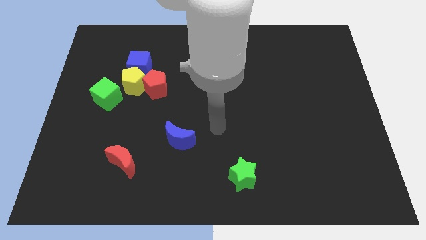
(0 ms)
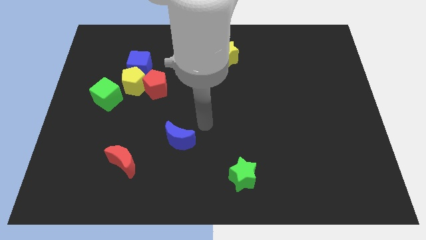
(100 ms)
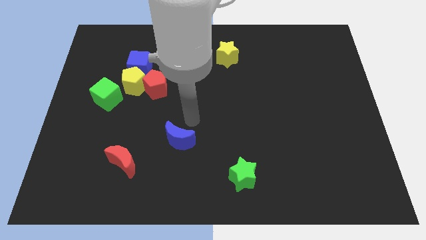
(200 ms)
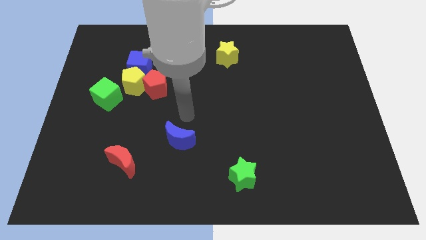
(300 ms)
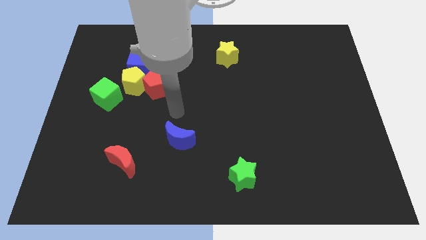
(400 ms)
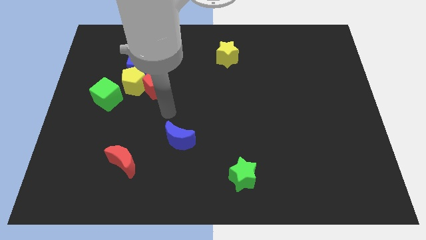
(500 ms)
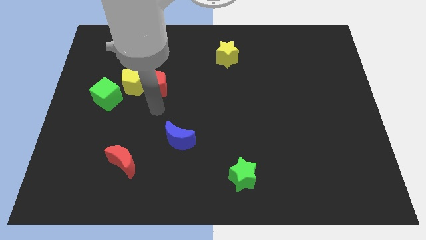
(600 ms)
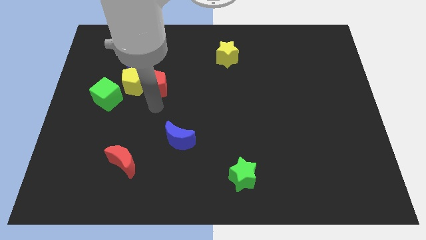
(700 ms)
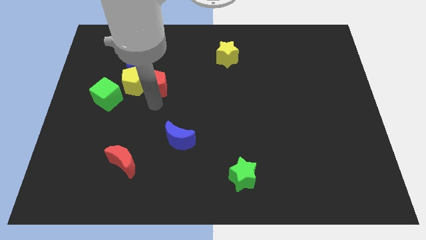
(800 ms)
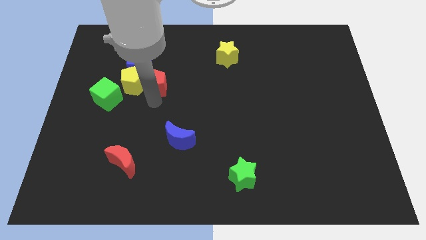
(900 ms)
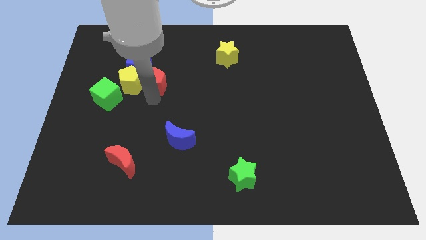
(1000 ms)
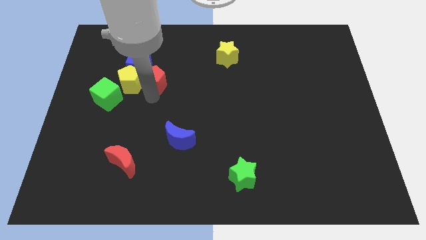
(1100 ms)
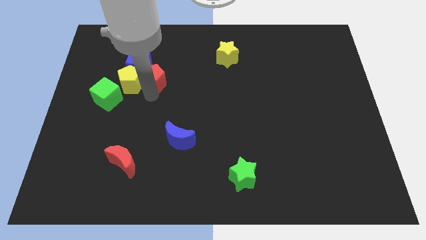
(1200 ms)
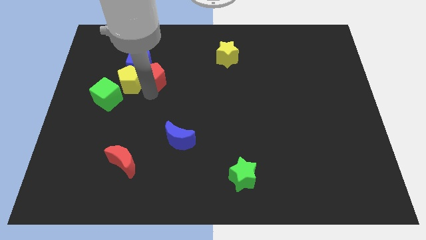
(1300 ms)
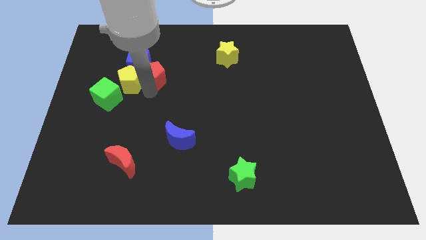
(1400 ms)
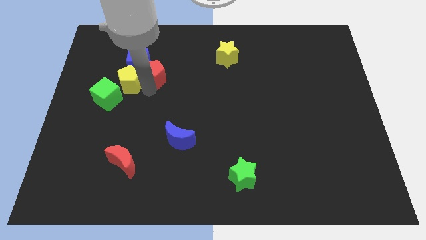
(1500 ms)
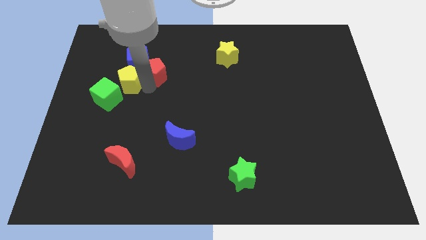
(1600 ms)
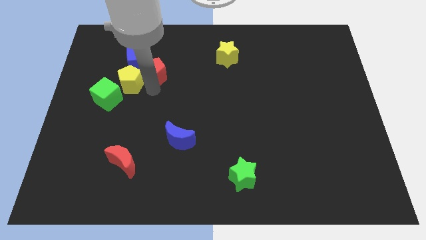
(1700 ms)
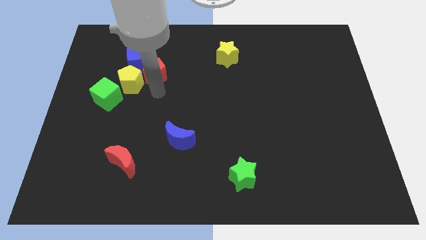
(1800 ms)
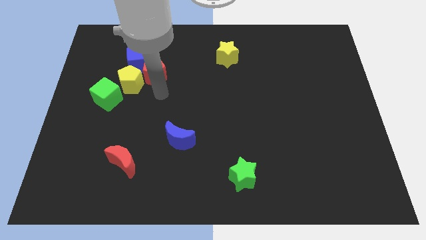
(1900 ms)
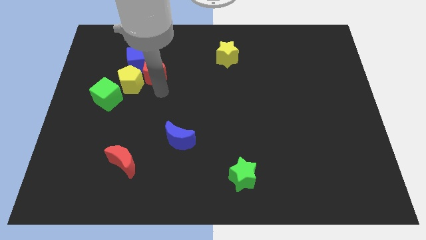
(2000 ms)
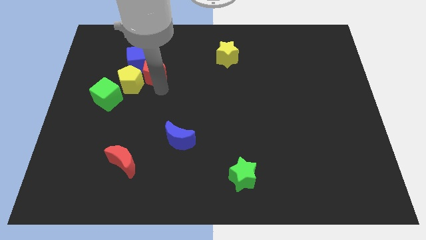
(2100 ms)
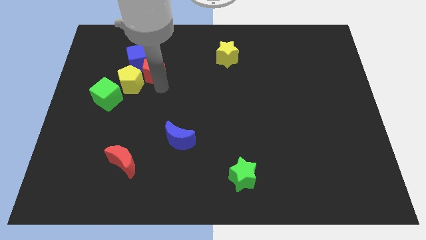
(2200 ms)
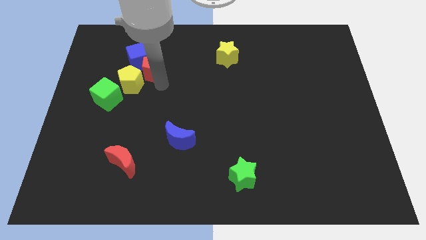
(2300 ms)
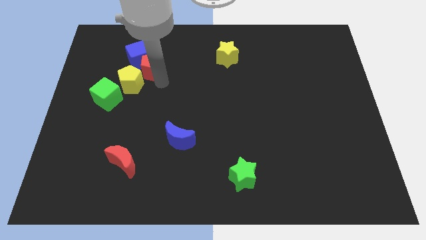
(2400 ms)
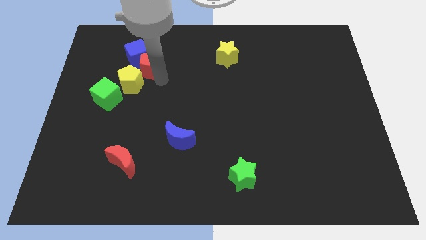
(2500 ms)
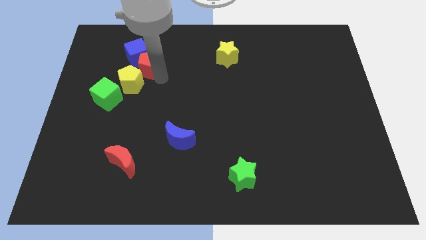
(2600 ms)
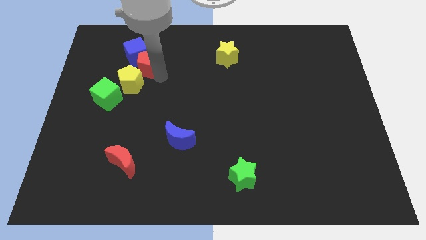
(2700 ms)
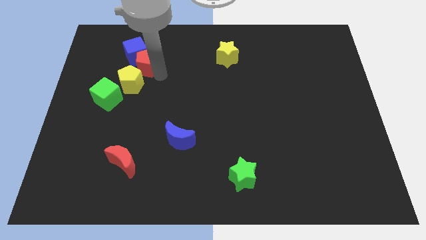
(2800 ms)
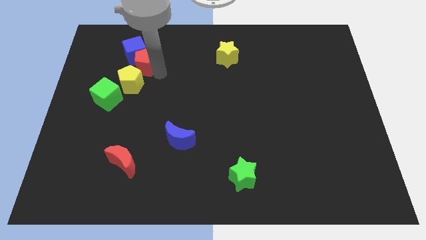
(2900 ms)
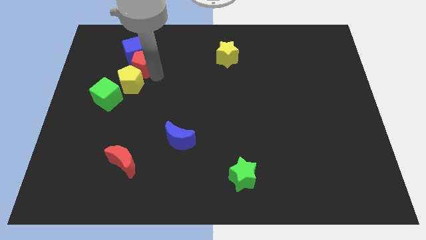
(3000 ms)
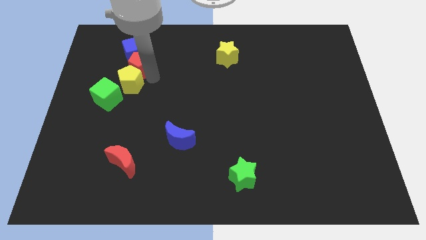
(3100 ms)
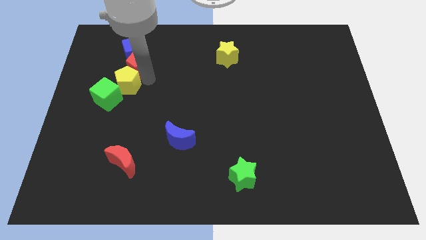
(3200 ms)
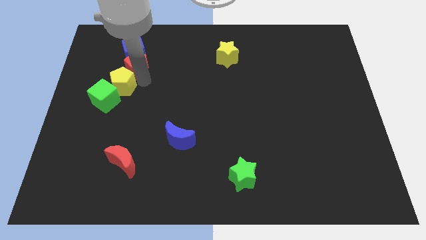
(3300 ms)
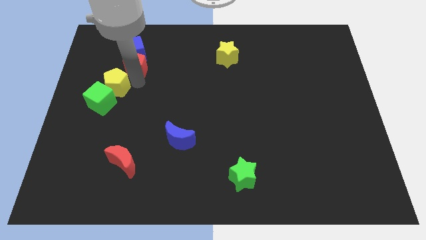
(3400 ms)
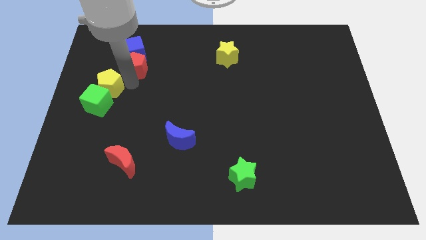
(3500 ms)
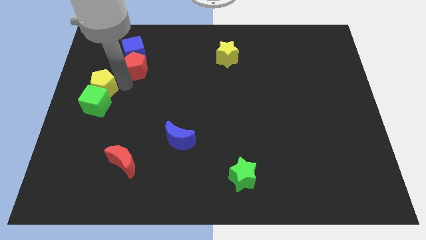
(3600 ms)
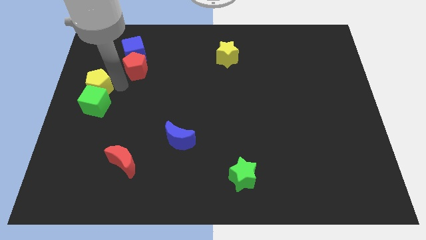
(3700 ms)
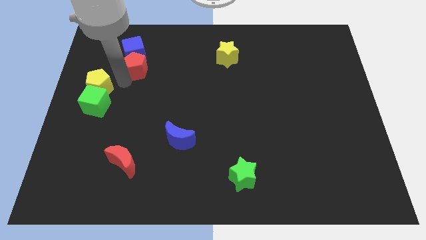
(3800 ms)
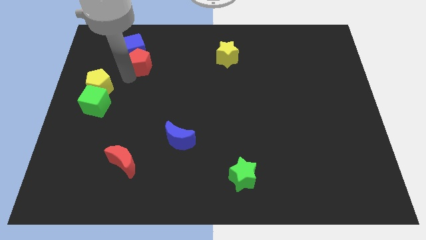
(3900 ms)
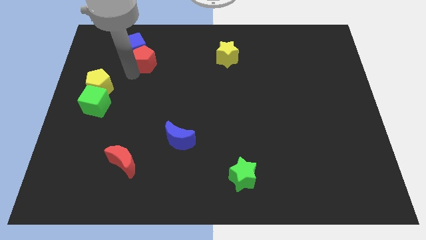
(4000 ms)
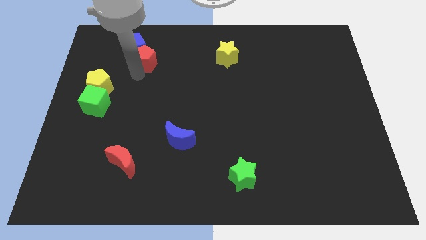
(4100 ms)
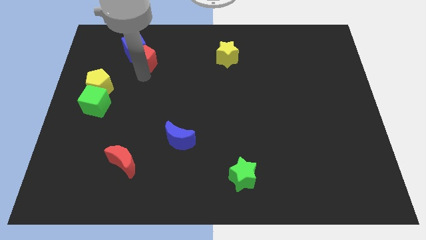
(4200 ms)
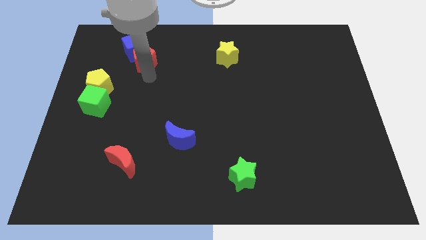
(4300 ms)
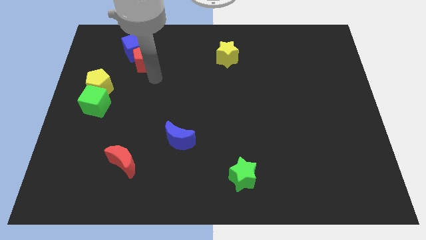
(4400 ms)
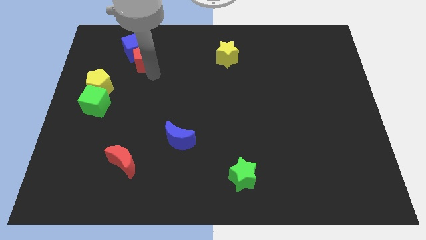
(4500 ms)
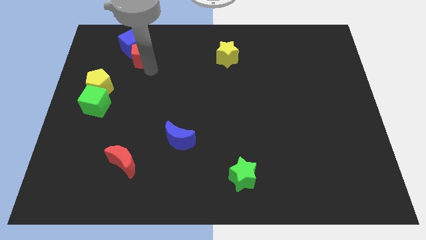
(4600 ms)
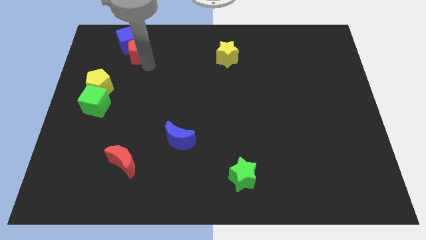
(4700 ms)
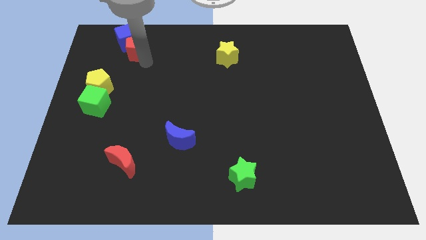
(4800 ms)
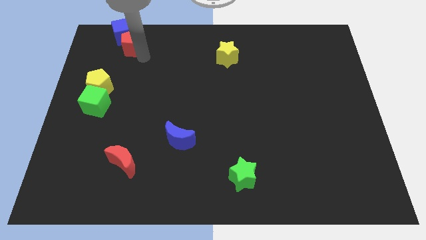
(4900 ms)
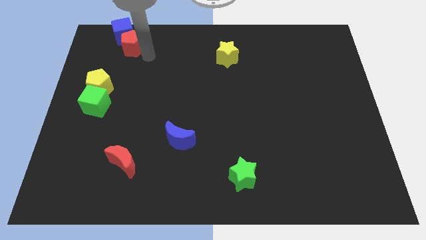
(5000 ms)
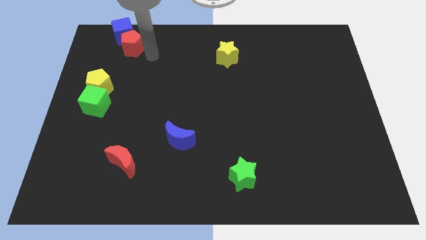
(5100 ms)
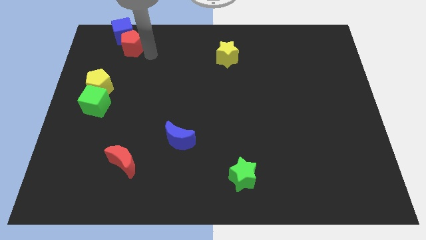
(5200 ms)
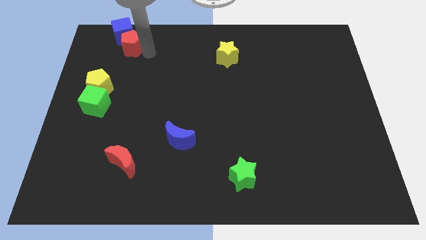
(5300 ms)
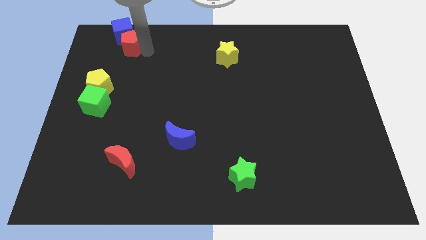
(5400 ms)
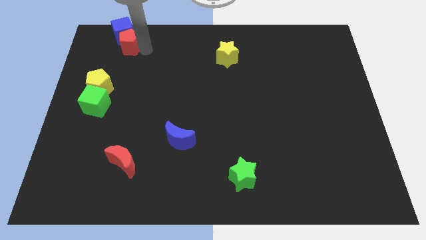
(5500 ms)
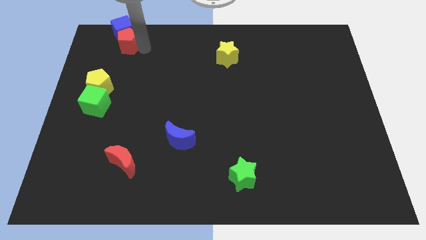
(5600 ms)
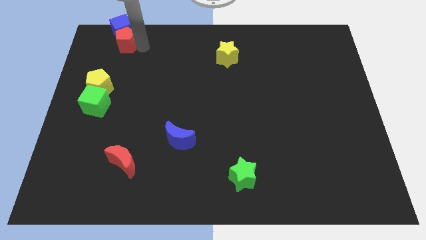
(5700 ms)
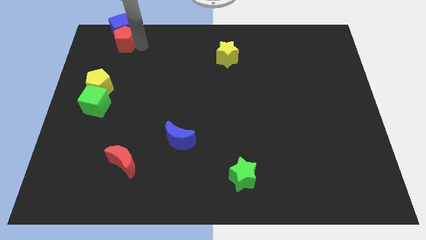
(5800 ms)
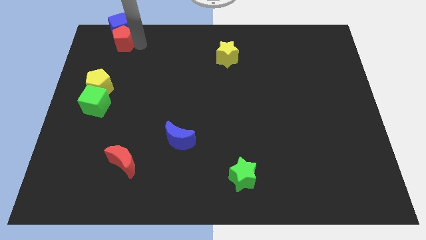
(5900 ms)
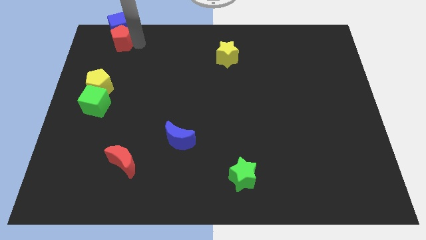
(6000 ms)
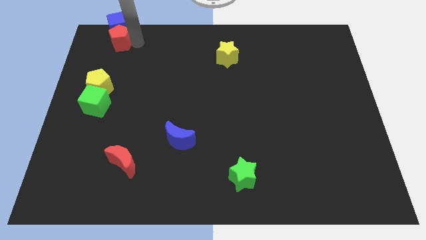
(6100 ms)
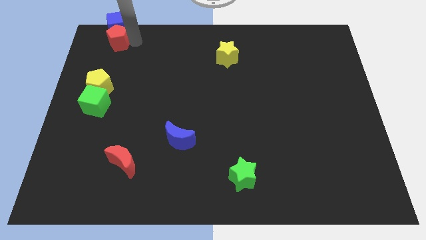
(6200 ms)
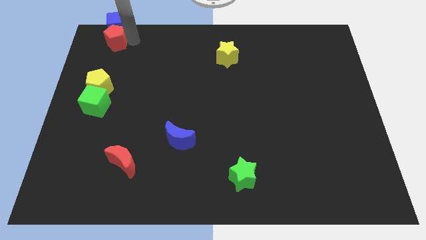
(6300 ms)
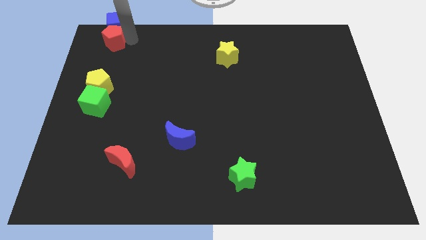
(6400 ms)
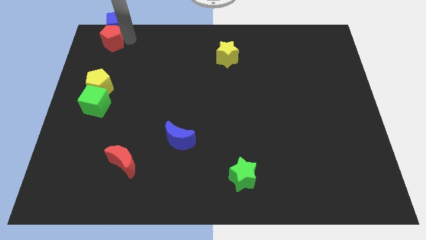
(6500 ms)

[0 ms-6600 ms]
push the red pentagon to the top left

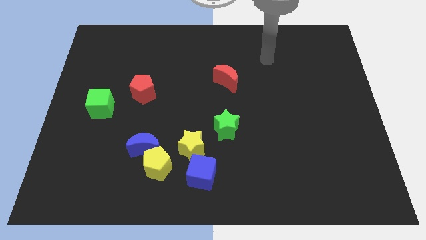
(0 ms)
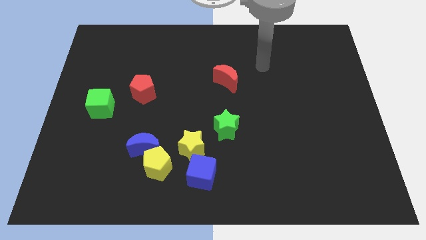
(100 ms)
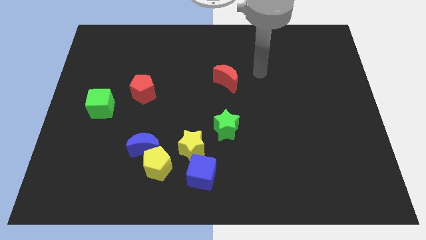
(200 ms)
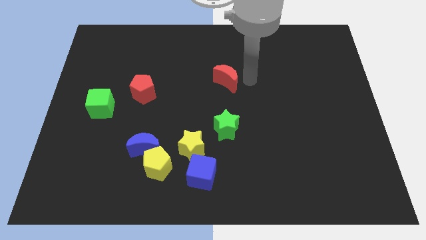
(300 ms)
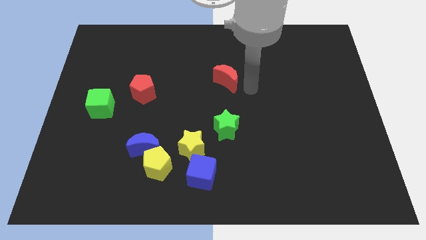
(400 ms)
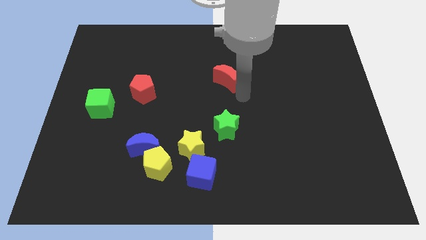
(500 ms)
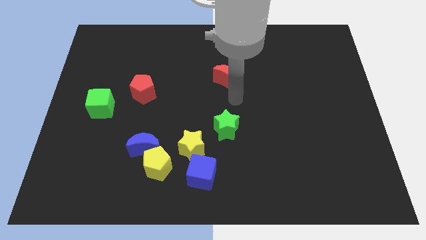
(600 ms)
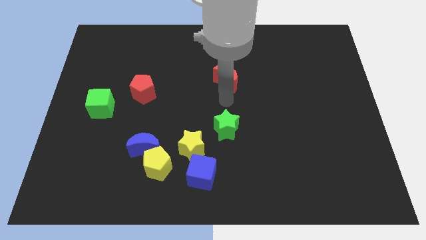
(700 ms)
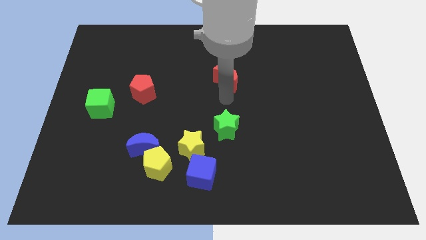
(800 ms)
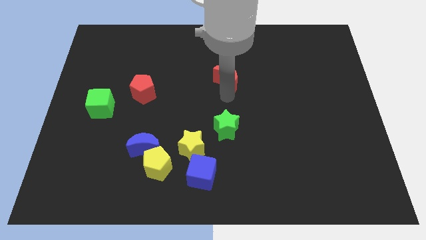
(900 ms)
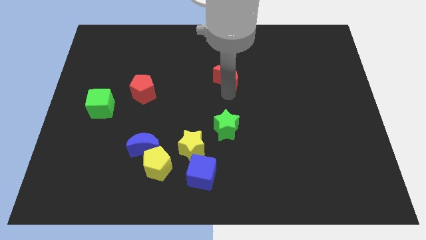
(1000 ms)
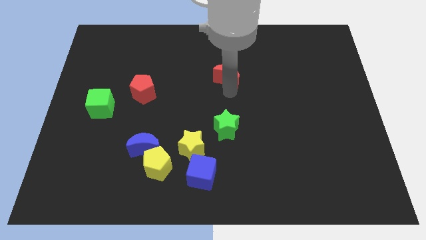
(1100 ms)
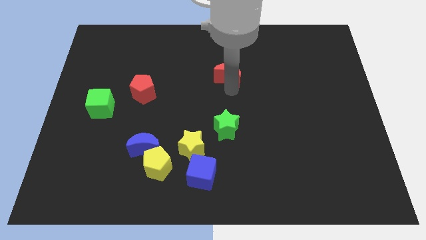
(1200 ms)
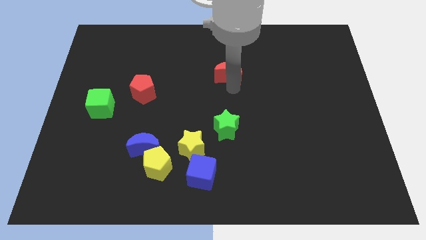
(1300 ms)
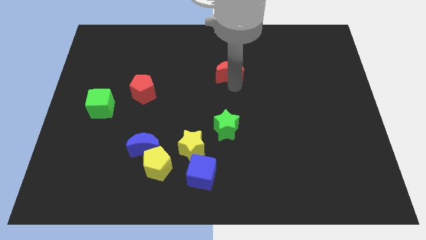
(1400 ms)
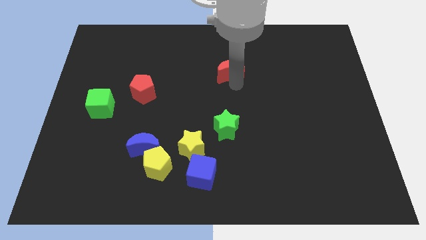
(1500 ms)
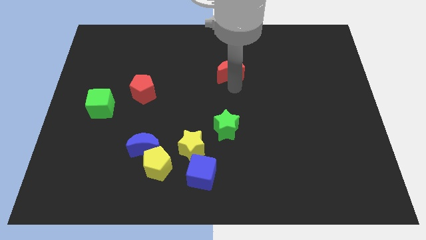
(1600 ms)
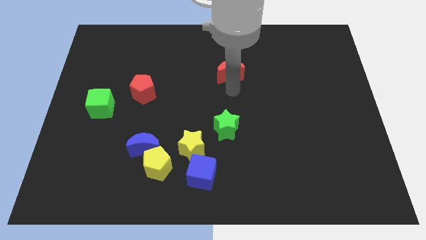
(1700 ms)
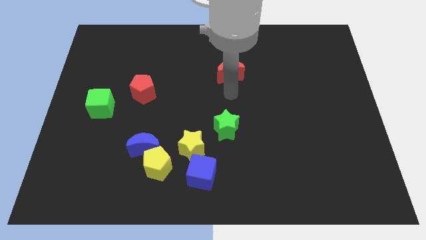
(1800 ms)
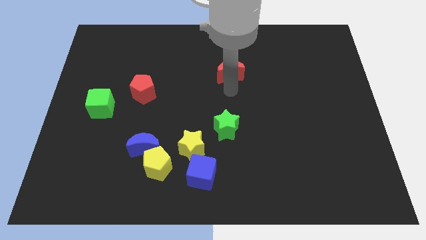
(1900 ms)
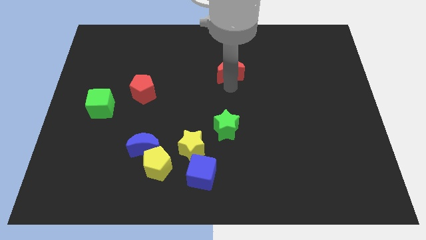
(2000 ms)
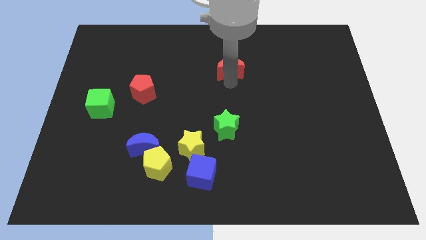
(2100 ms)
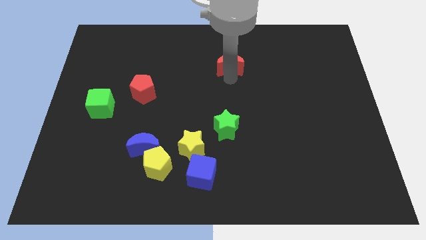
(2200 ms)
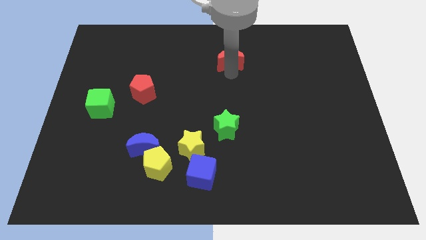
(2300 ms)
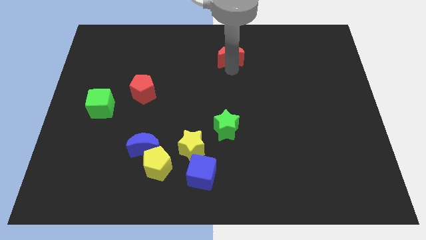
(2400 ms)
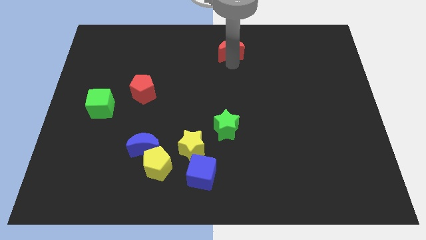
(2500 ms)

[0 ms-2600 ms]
slide the red moon to the top
